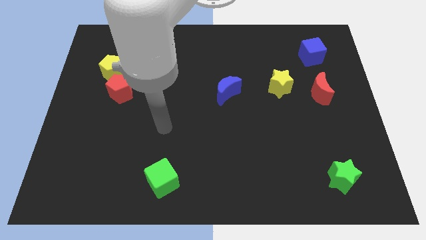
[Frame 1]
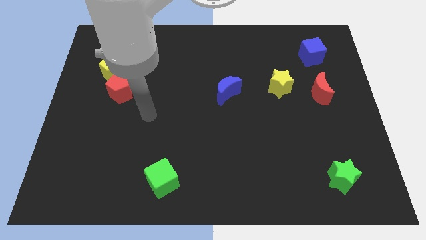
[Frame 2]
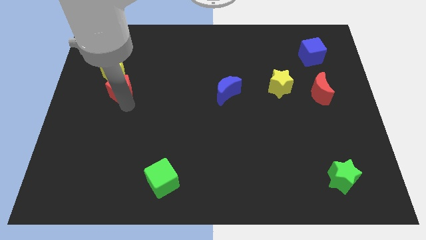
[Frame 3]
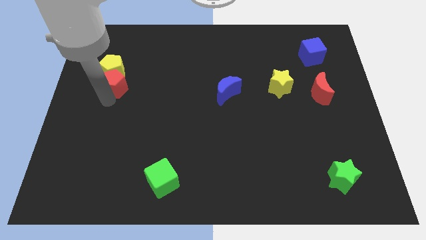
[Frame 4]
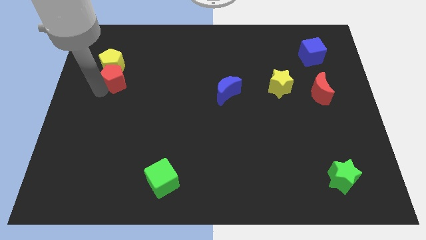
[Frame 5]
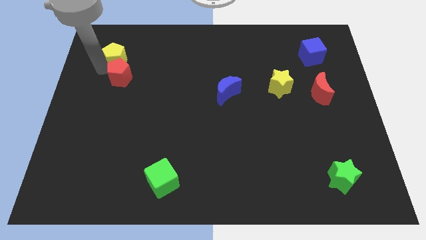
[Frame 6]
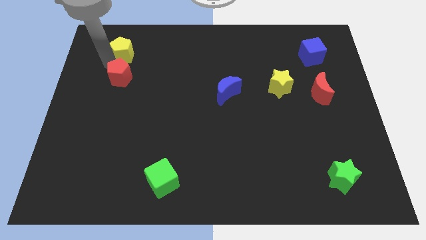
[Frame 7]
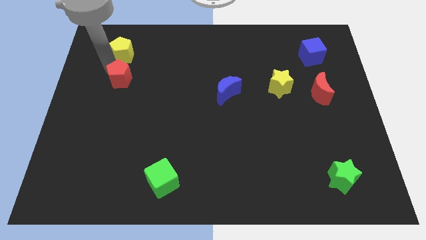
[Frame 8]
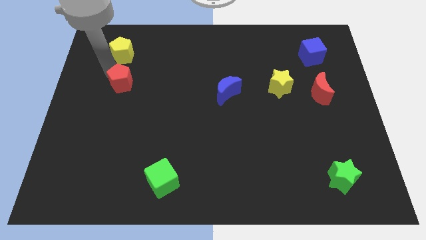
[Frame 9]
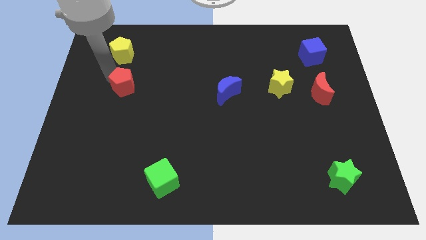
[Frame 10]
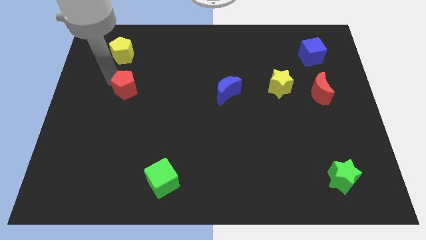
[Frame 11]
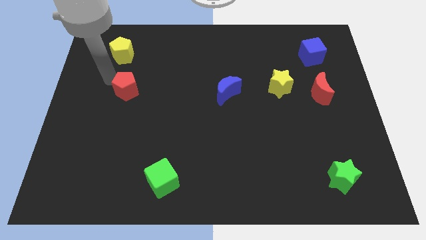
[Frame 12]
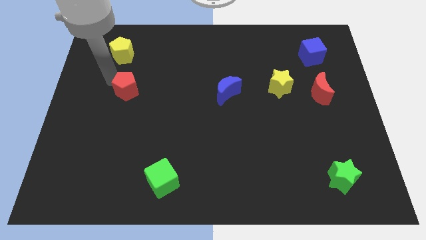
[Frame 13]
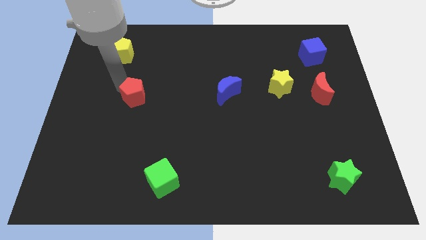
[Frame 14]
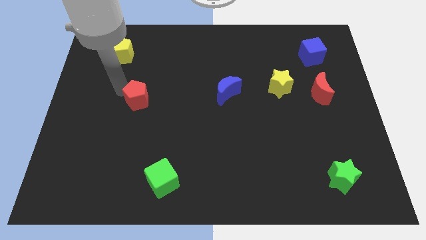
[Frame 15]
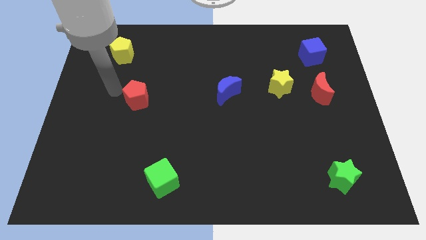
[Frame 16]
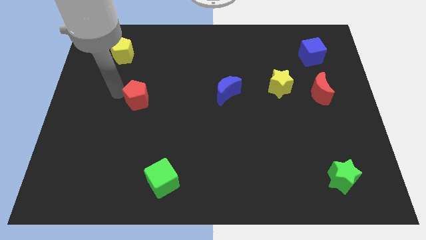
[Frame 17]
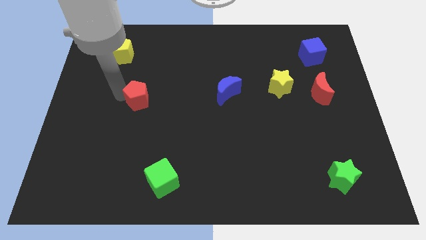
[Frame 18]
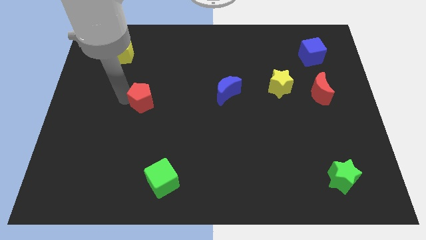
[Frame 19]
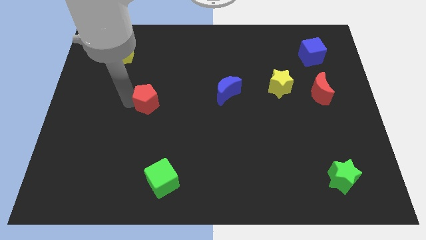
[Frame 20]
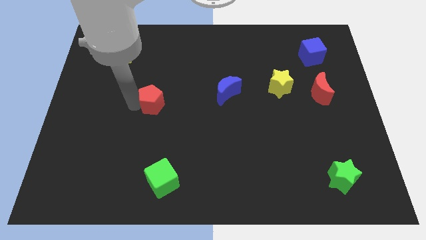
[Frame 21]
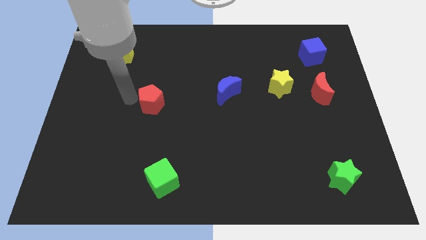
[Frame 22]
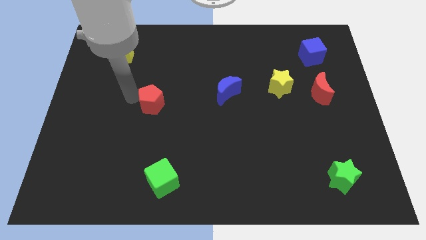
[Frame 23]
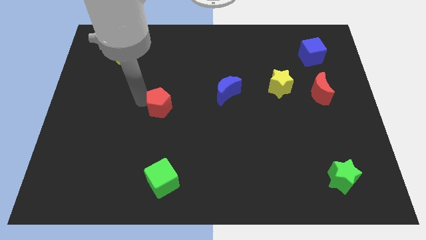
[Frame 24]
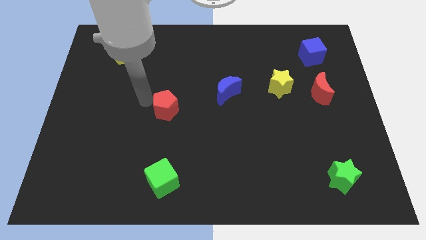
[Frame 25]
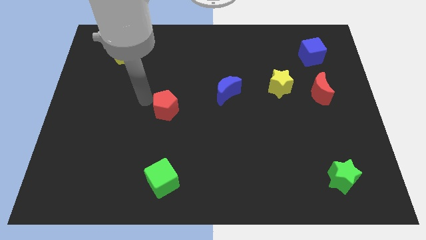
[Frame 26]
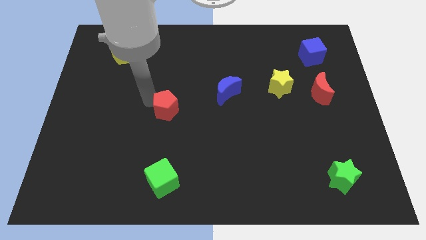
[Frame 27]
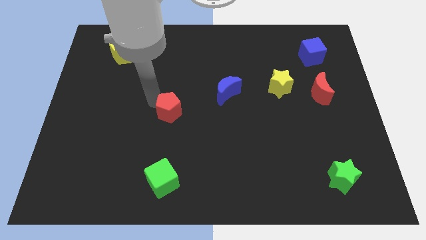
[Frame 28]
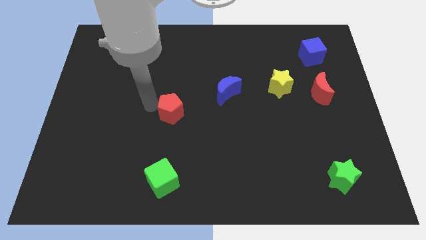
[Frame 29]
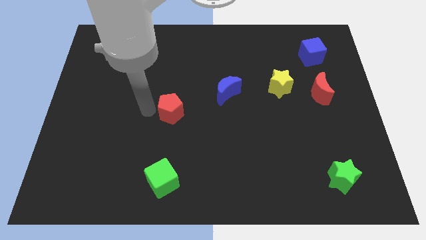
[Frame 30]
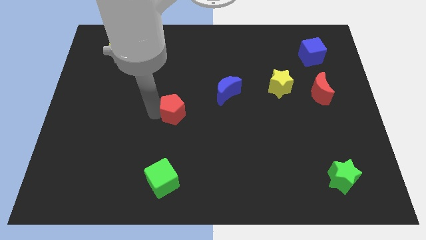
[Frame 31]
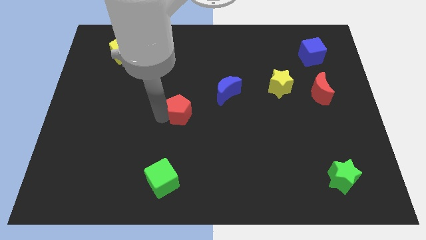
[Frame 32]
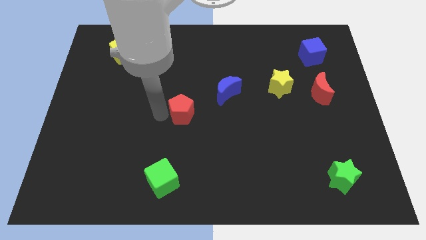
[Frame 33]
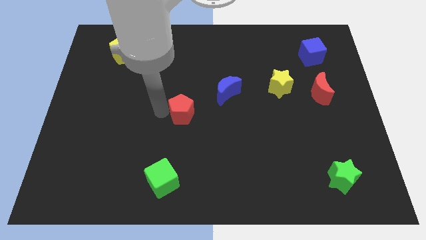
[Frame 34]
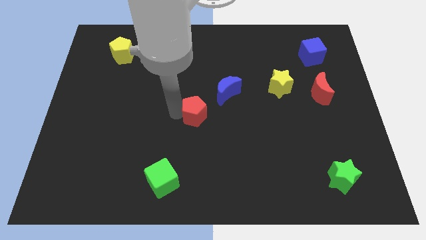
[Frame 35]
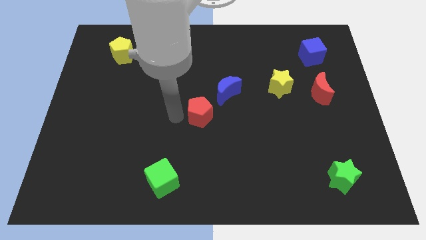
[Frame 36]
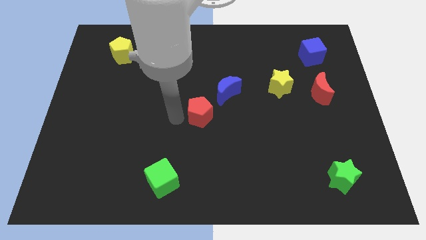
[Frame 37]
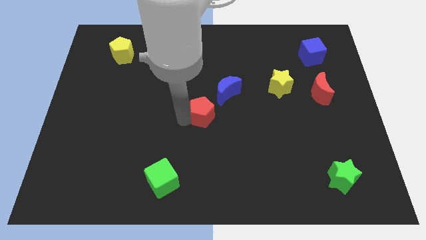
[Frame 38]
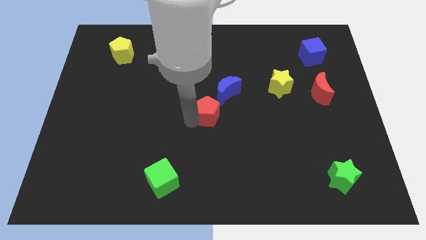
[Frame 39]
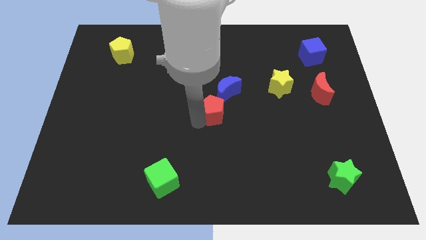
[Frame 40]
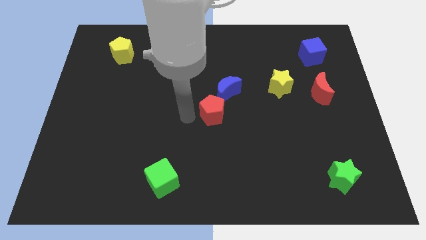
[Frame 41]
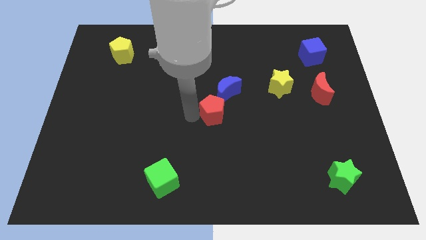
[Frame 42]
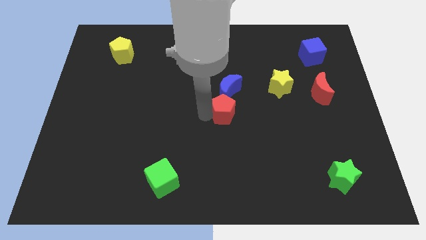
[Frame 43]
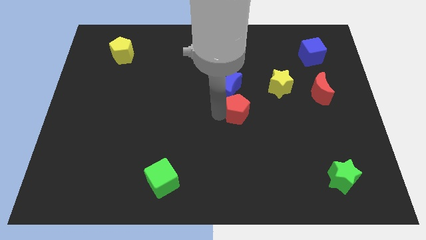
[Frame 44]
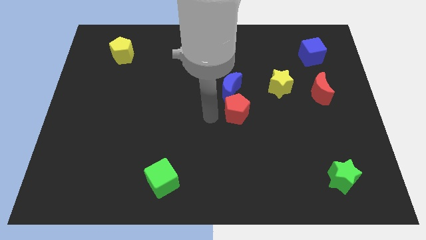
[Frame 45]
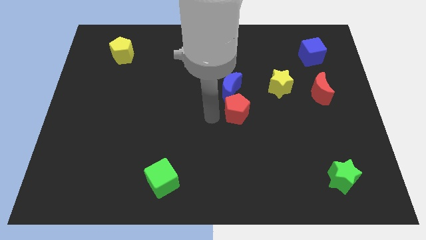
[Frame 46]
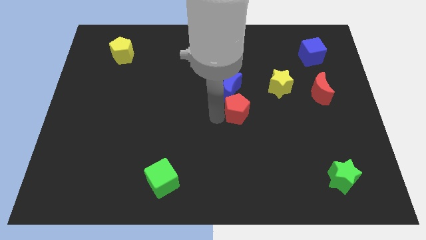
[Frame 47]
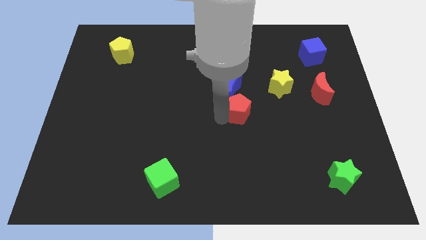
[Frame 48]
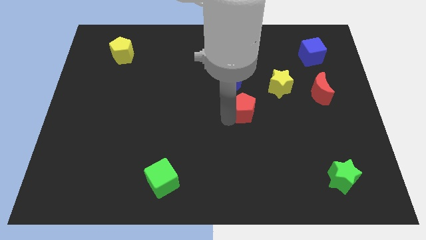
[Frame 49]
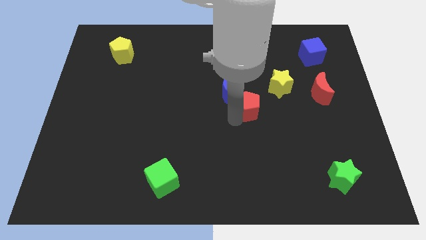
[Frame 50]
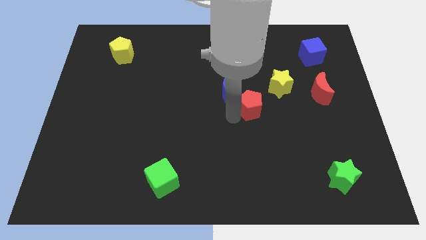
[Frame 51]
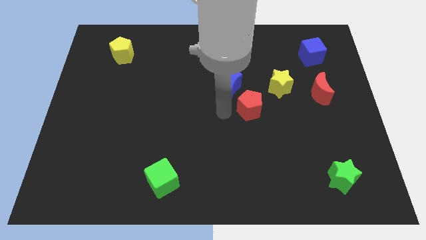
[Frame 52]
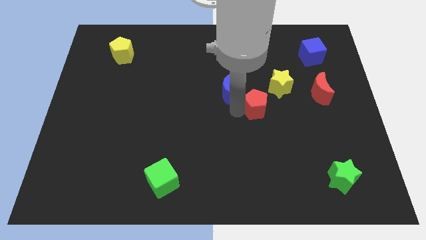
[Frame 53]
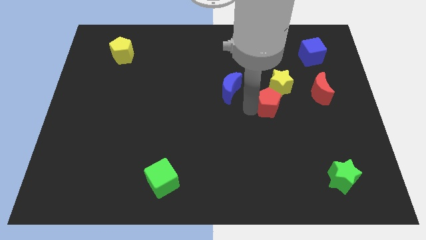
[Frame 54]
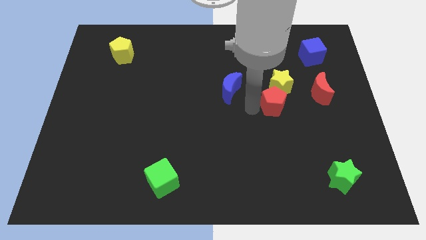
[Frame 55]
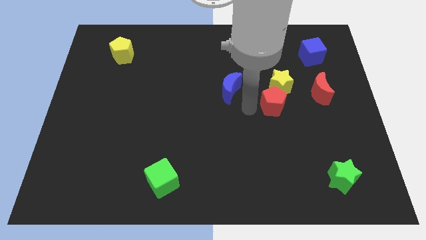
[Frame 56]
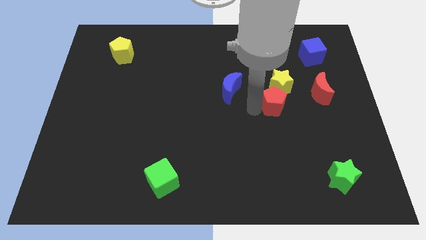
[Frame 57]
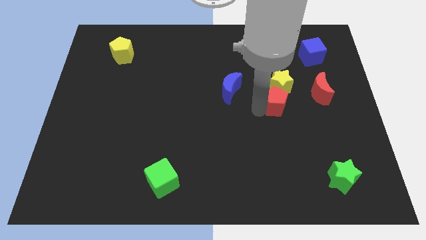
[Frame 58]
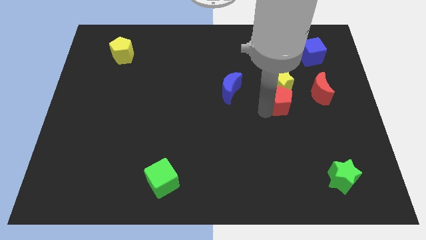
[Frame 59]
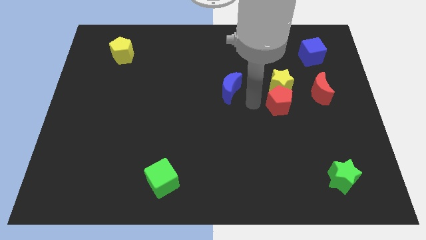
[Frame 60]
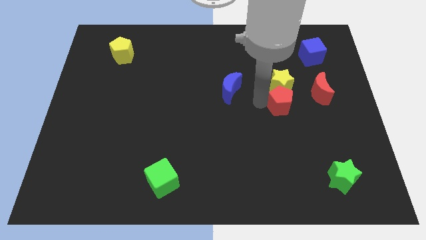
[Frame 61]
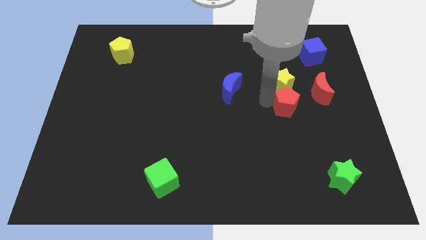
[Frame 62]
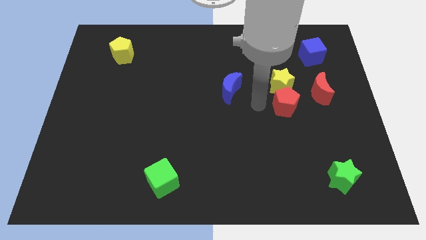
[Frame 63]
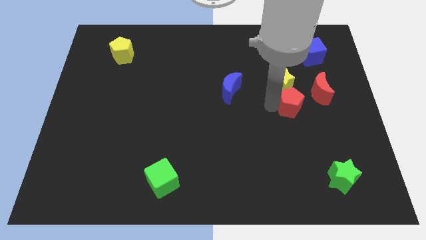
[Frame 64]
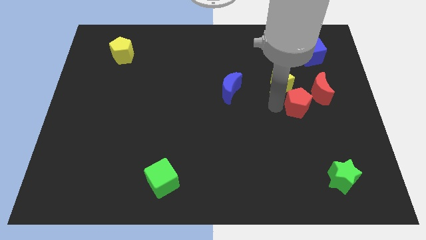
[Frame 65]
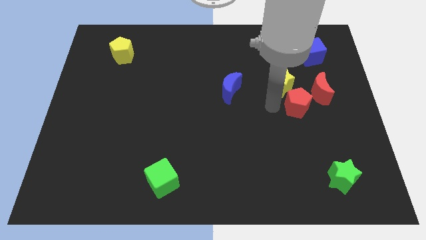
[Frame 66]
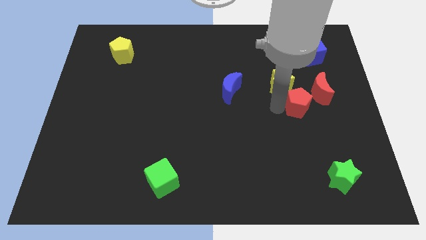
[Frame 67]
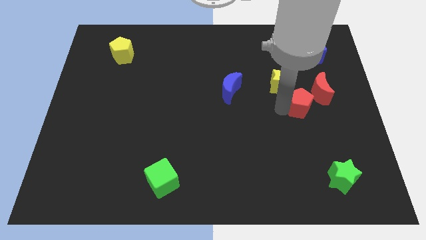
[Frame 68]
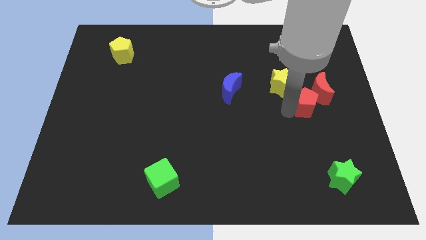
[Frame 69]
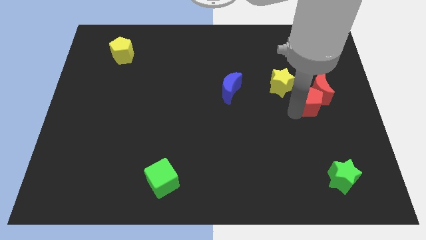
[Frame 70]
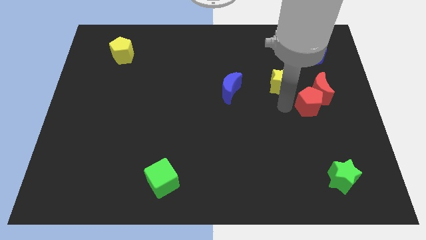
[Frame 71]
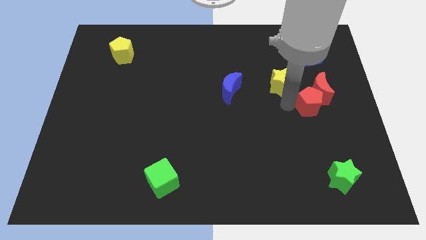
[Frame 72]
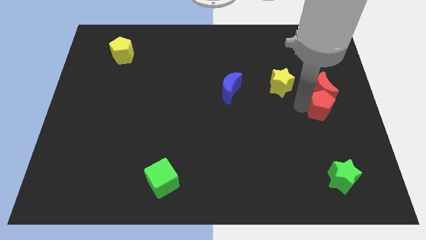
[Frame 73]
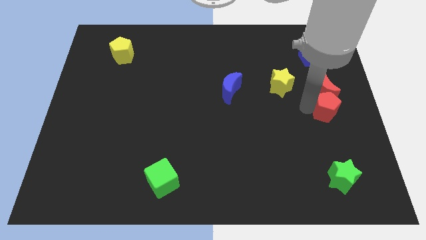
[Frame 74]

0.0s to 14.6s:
put the red pentagon to the right side of the board
